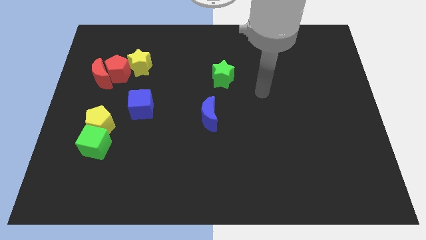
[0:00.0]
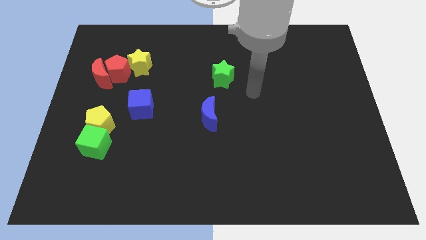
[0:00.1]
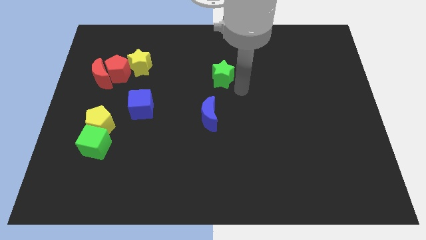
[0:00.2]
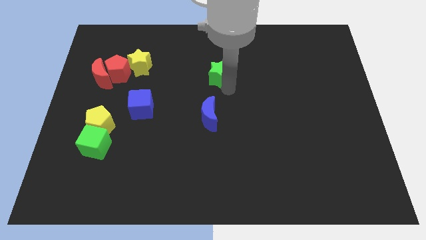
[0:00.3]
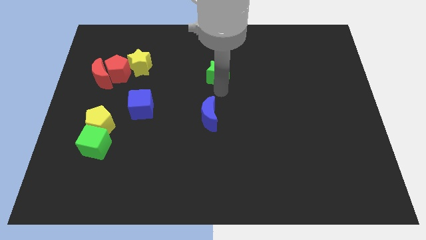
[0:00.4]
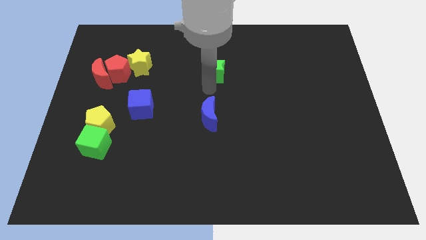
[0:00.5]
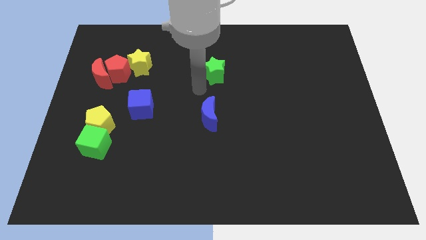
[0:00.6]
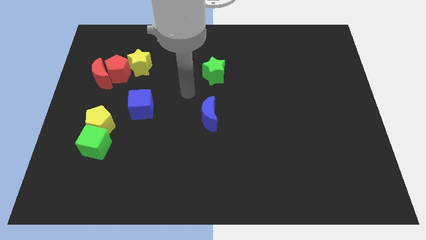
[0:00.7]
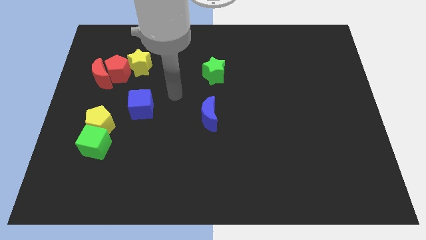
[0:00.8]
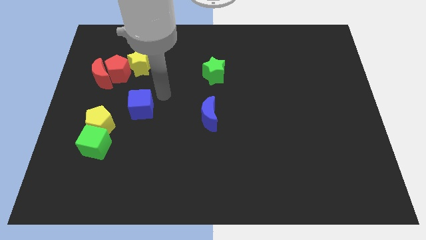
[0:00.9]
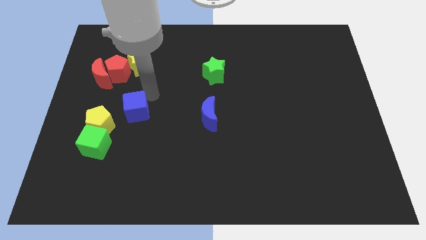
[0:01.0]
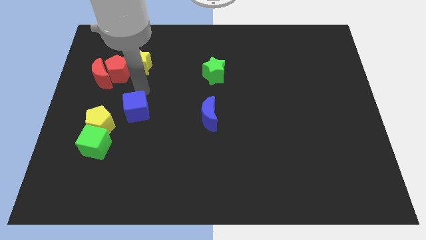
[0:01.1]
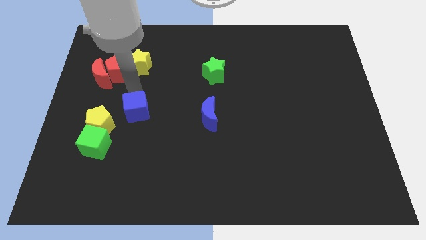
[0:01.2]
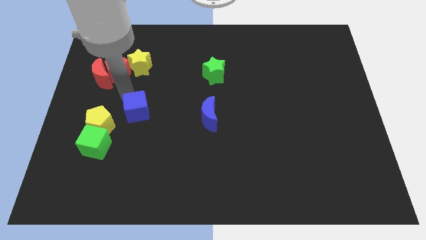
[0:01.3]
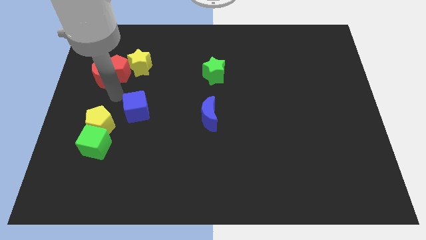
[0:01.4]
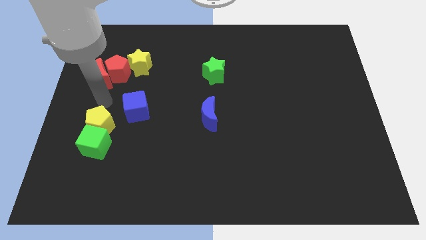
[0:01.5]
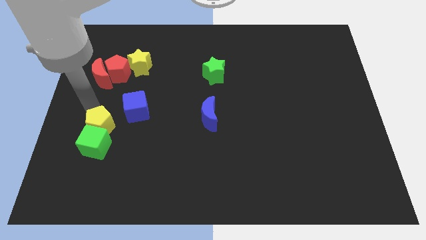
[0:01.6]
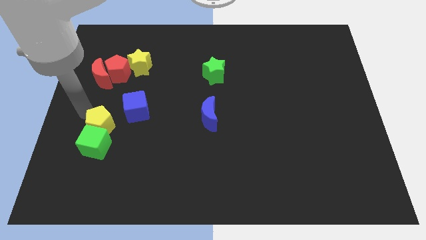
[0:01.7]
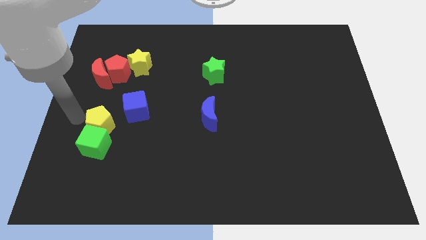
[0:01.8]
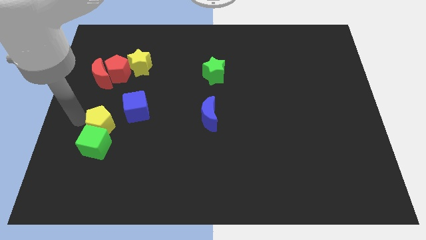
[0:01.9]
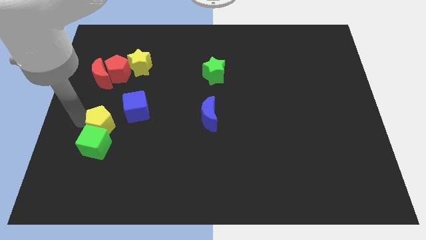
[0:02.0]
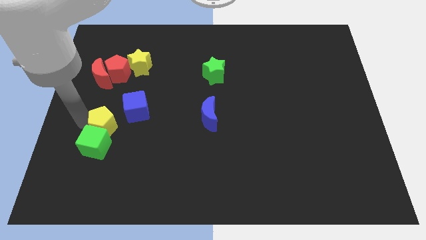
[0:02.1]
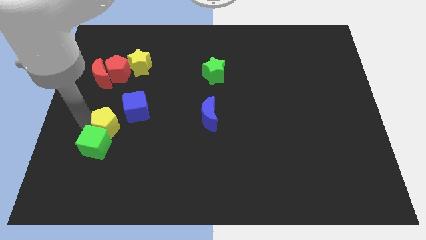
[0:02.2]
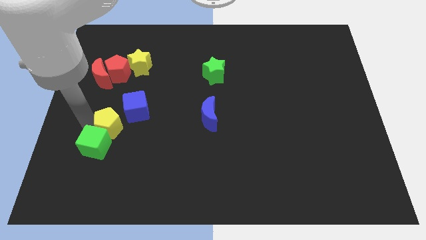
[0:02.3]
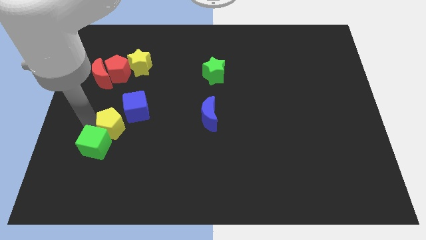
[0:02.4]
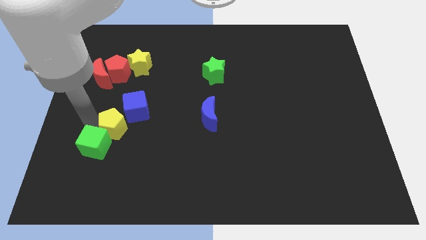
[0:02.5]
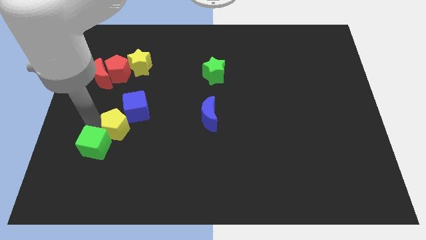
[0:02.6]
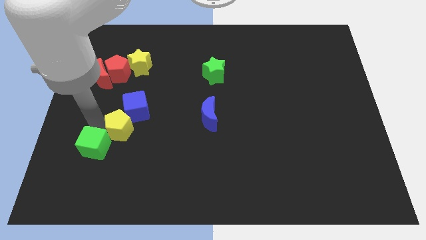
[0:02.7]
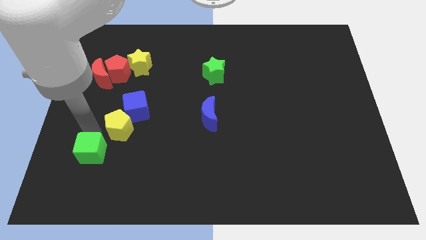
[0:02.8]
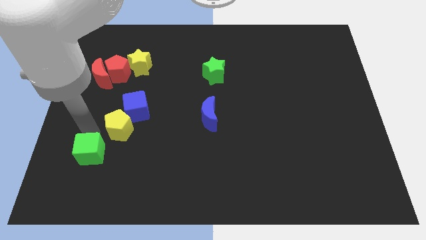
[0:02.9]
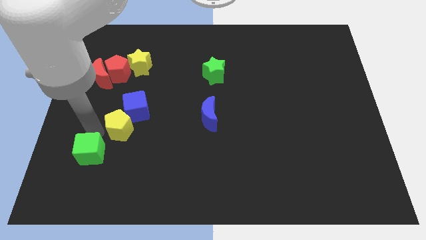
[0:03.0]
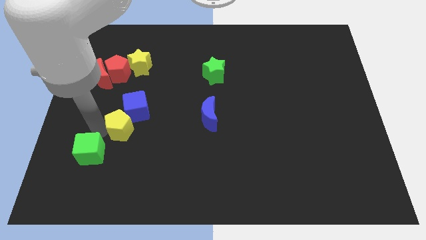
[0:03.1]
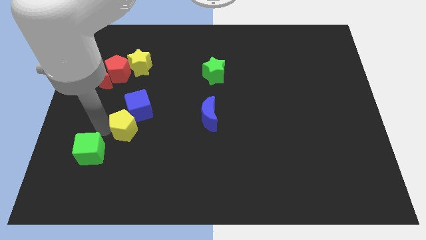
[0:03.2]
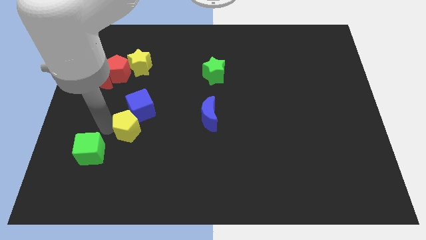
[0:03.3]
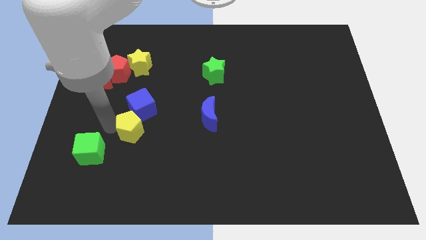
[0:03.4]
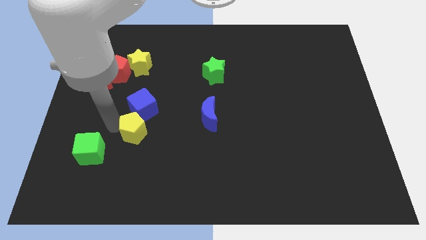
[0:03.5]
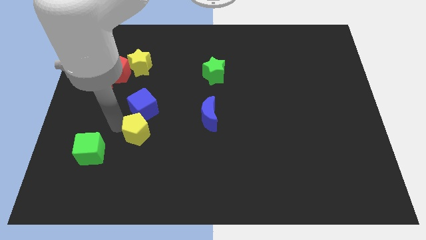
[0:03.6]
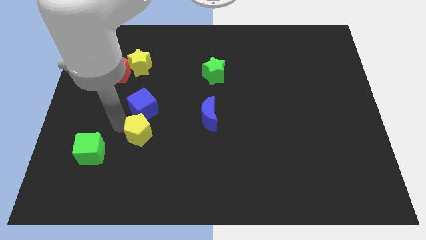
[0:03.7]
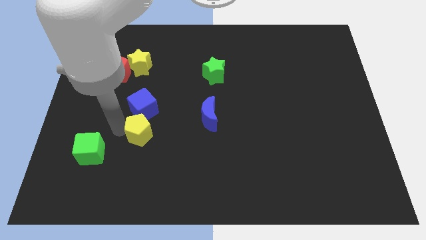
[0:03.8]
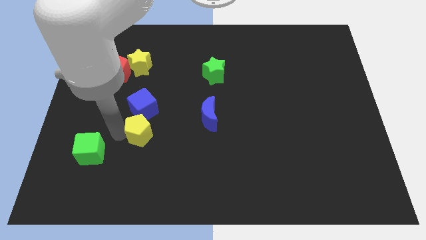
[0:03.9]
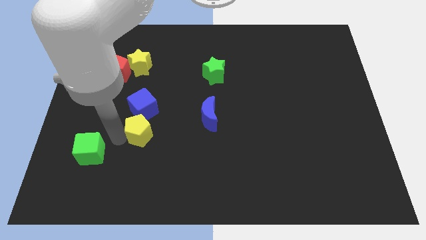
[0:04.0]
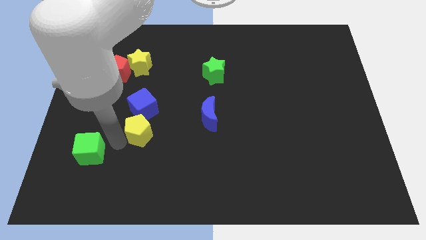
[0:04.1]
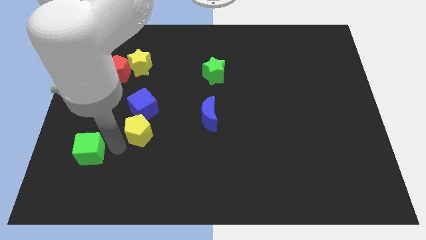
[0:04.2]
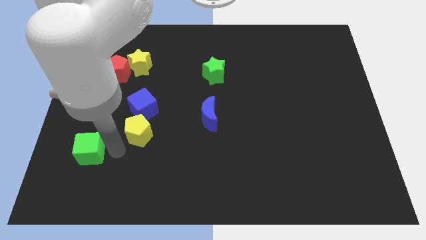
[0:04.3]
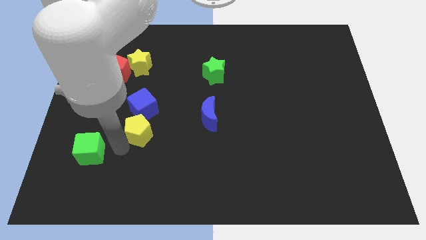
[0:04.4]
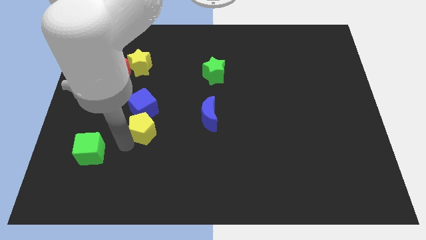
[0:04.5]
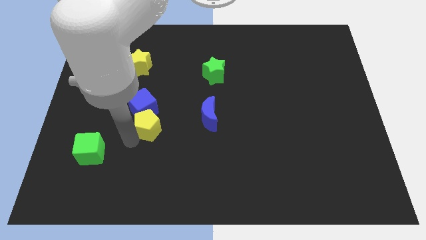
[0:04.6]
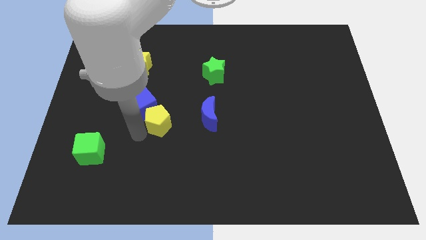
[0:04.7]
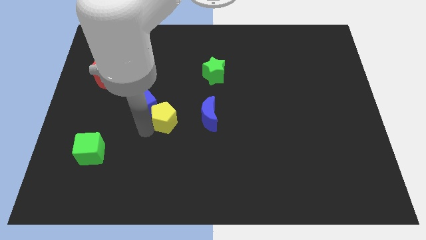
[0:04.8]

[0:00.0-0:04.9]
put the yellow pentagon to the center of the board

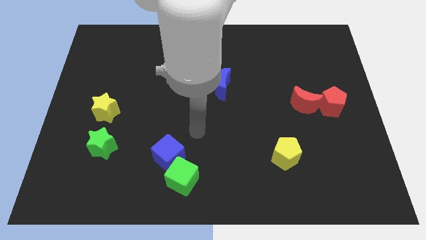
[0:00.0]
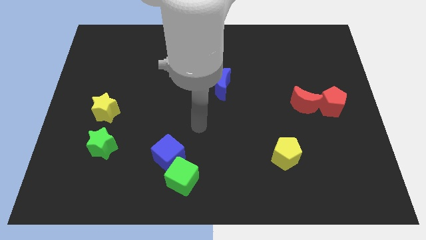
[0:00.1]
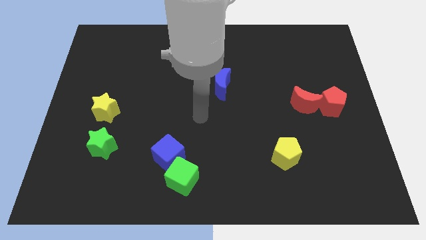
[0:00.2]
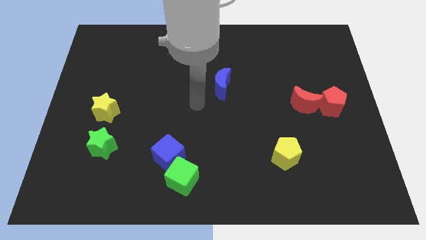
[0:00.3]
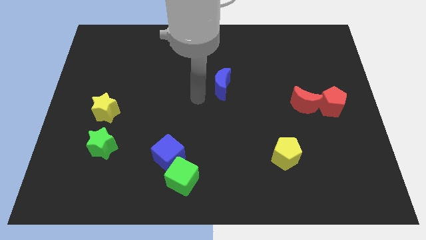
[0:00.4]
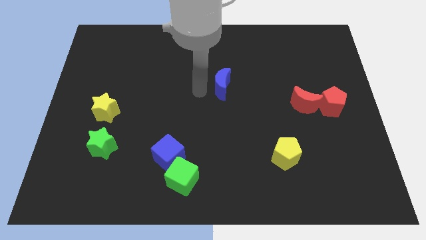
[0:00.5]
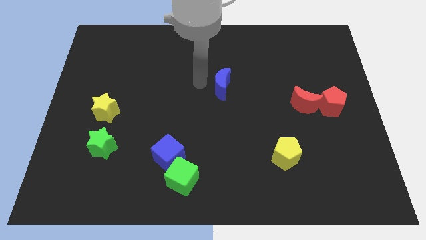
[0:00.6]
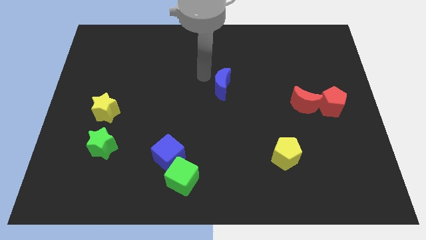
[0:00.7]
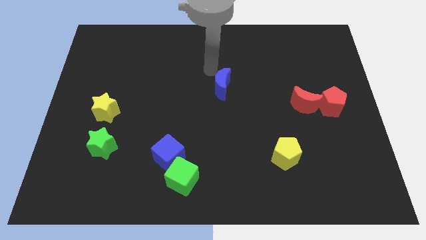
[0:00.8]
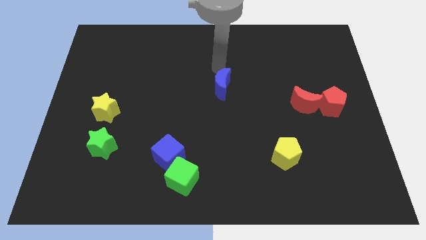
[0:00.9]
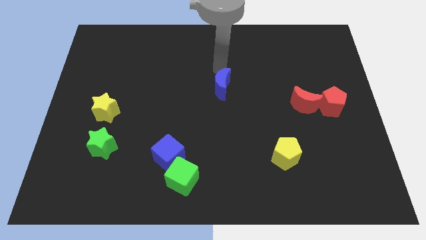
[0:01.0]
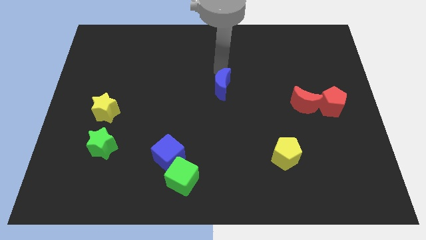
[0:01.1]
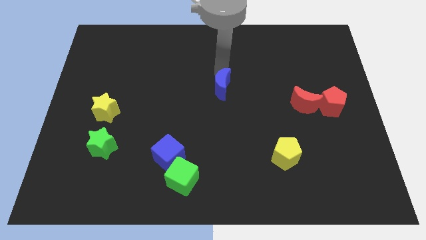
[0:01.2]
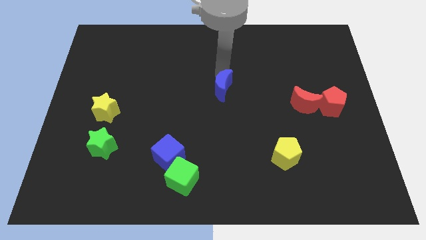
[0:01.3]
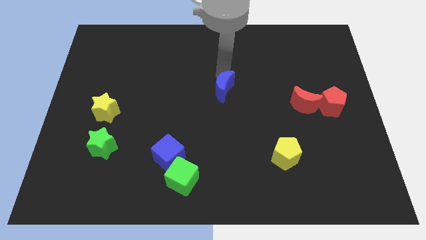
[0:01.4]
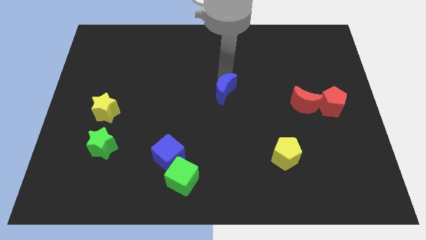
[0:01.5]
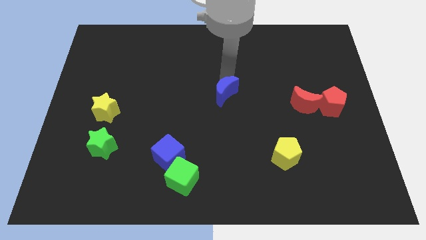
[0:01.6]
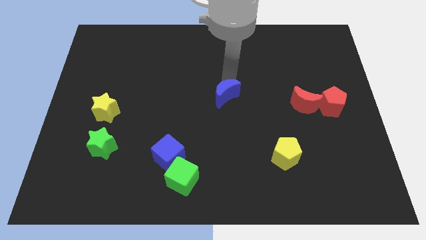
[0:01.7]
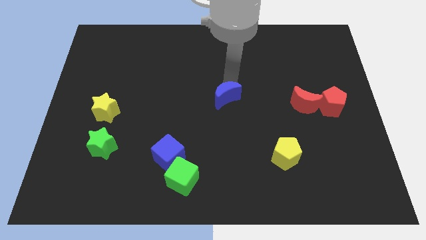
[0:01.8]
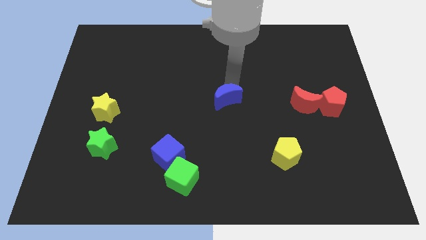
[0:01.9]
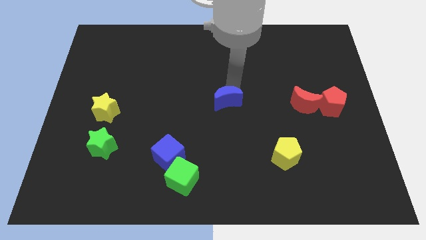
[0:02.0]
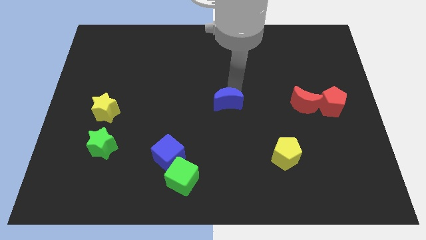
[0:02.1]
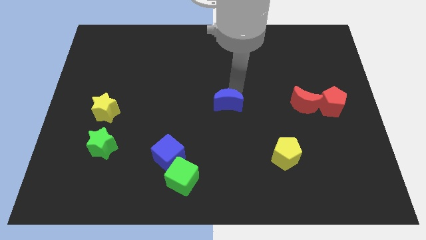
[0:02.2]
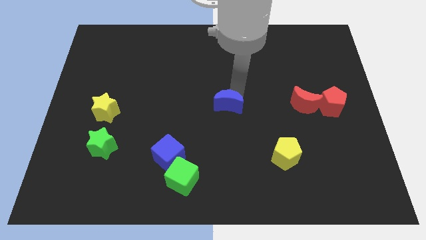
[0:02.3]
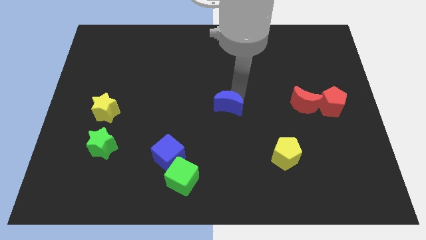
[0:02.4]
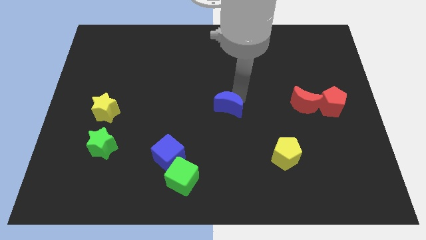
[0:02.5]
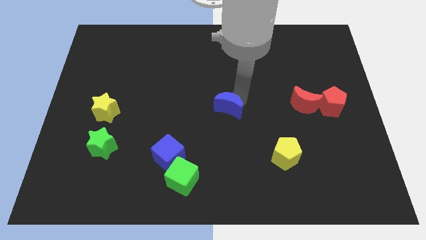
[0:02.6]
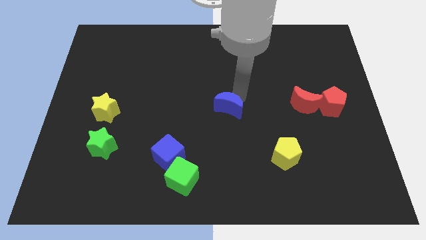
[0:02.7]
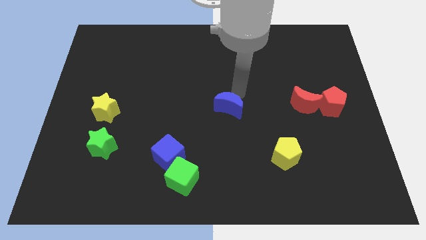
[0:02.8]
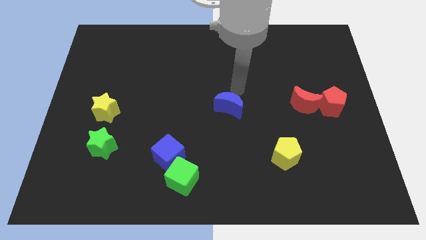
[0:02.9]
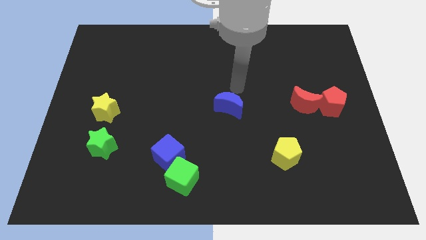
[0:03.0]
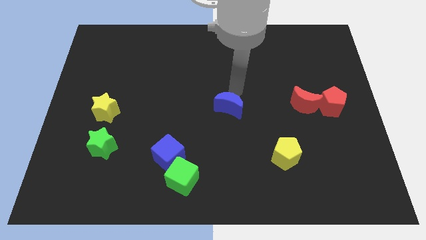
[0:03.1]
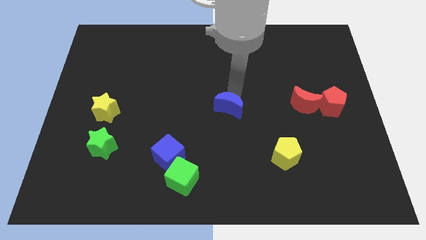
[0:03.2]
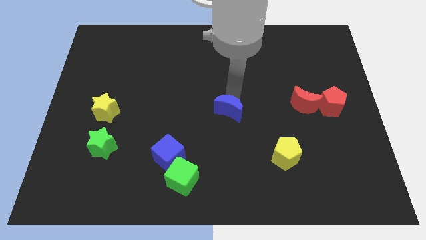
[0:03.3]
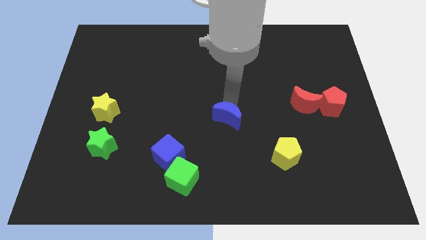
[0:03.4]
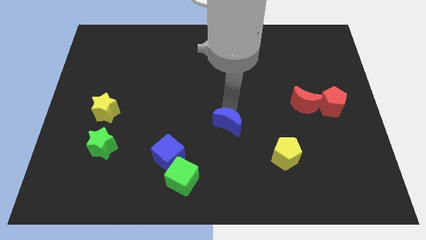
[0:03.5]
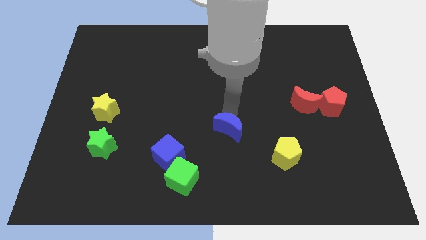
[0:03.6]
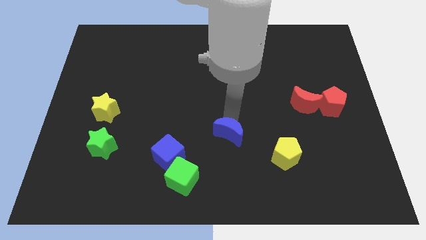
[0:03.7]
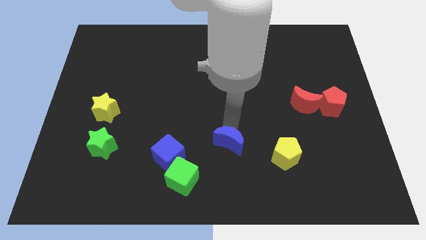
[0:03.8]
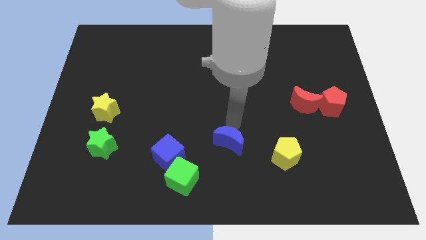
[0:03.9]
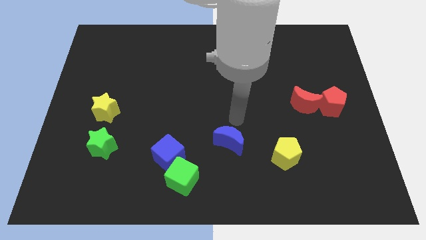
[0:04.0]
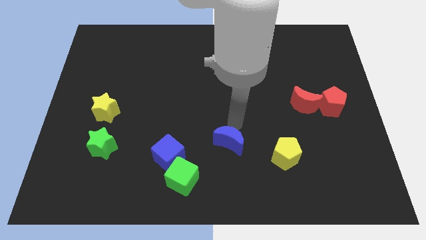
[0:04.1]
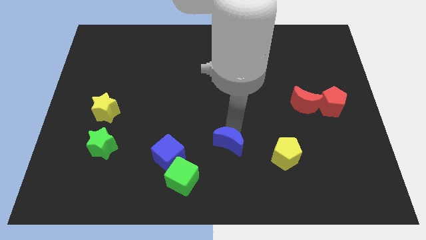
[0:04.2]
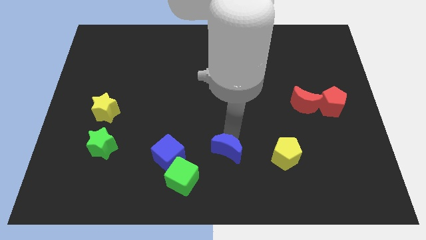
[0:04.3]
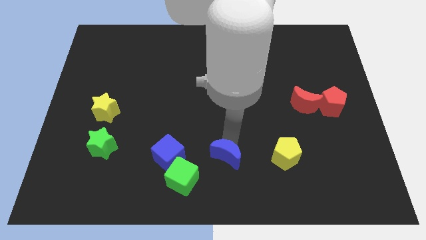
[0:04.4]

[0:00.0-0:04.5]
move the blue moon to the bottom side
